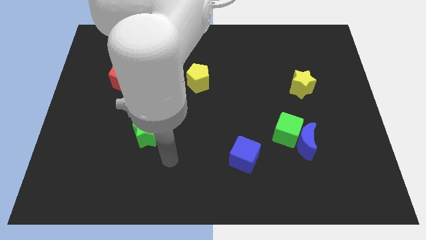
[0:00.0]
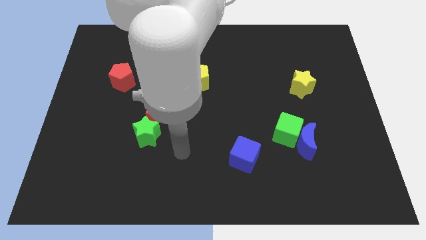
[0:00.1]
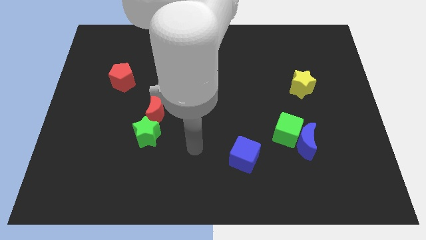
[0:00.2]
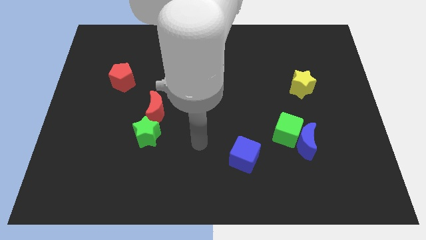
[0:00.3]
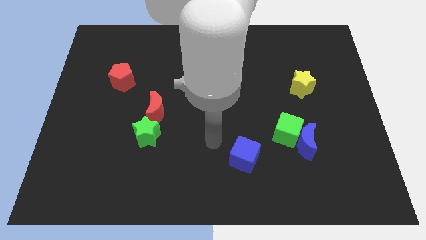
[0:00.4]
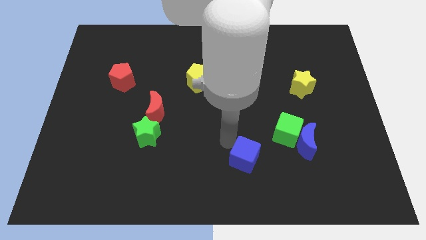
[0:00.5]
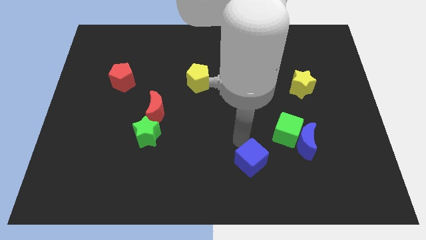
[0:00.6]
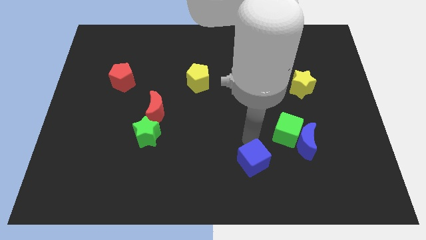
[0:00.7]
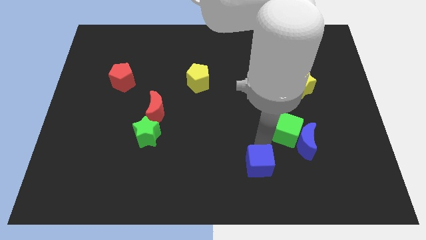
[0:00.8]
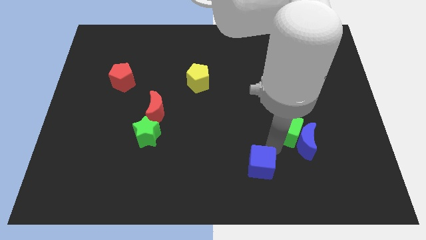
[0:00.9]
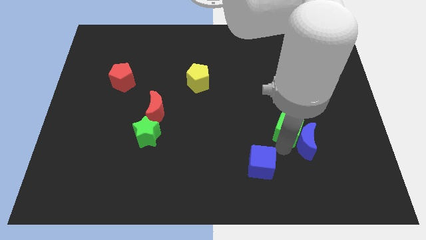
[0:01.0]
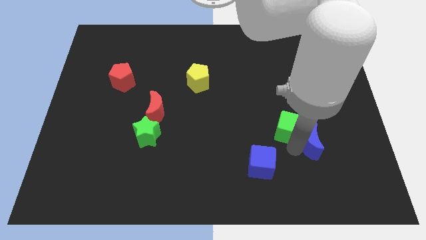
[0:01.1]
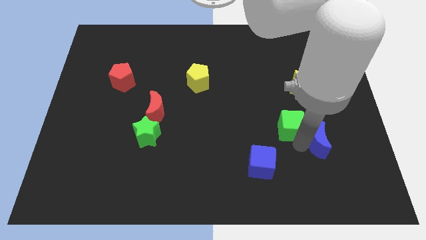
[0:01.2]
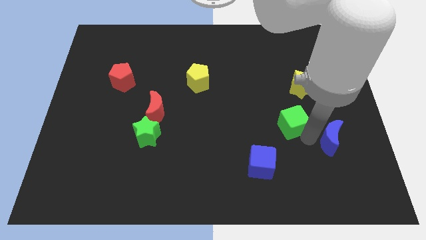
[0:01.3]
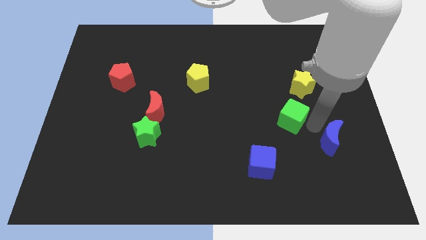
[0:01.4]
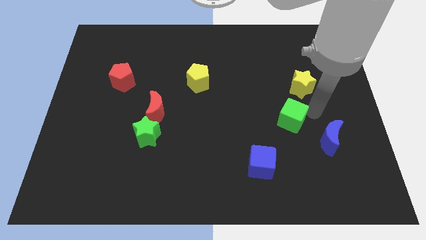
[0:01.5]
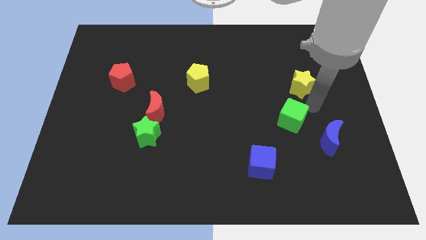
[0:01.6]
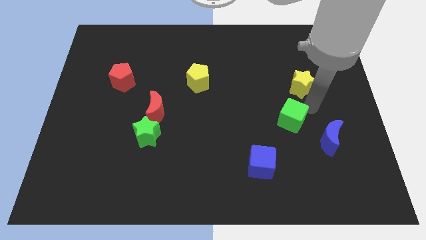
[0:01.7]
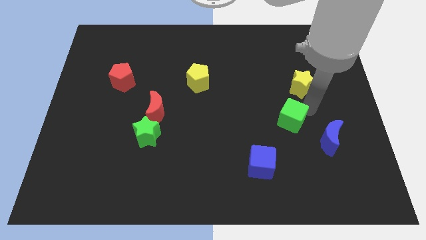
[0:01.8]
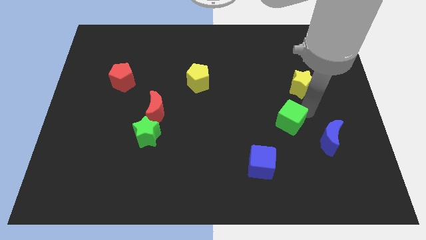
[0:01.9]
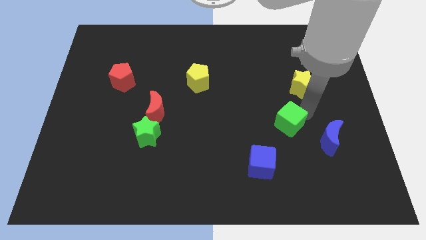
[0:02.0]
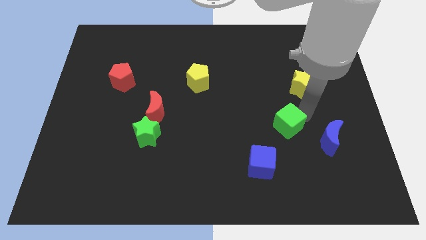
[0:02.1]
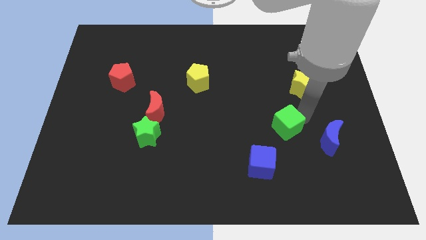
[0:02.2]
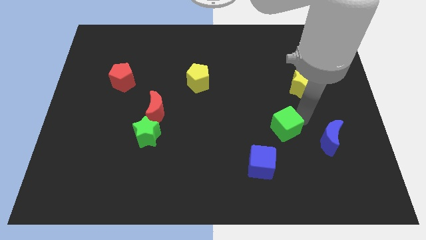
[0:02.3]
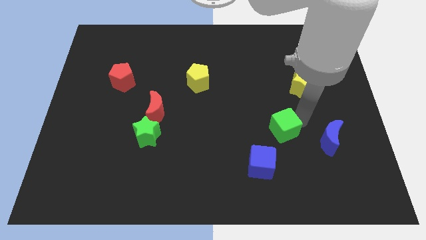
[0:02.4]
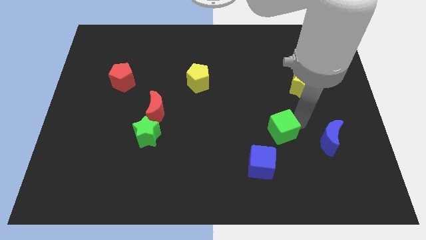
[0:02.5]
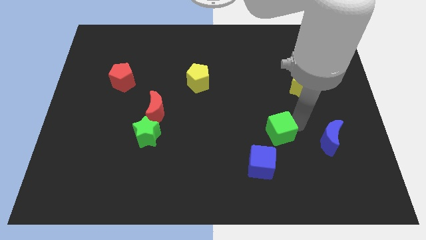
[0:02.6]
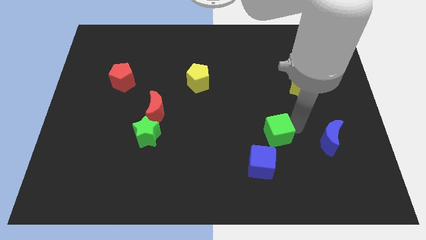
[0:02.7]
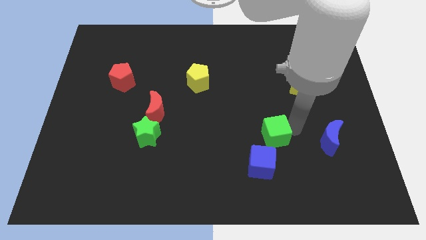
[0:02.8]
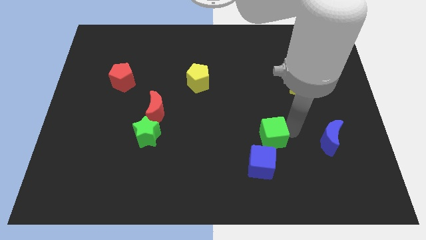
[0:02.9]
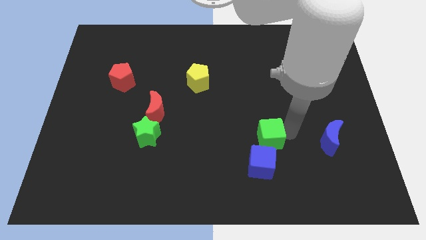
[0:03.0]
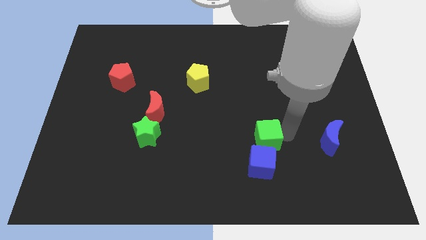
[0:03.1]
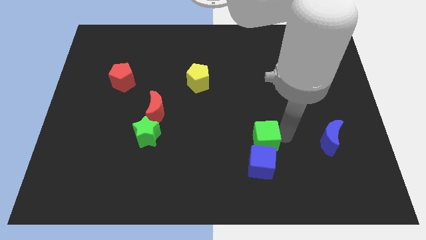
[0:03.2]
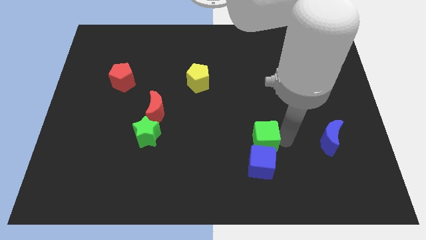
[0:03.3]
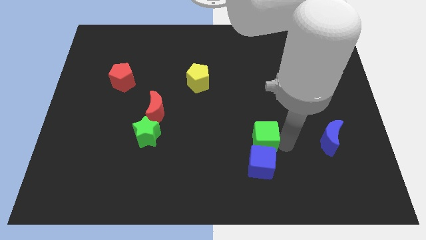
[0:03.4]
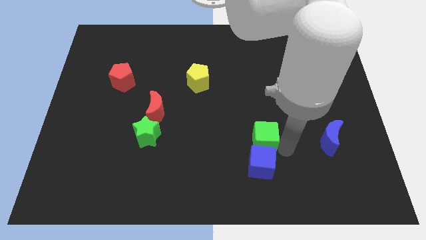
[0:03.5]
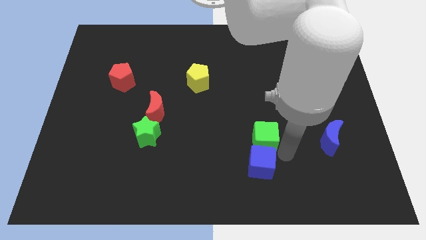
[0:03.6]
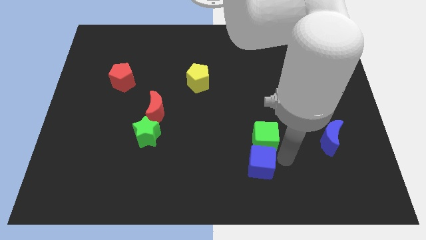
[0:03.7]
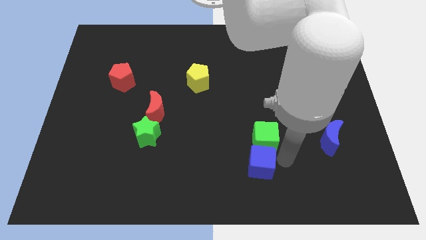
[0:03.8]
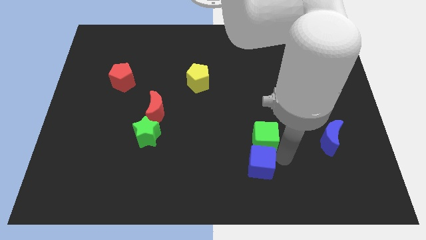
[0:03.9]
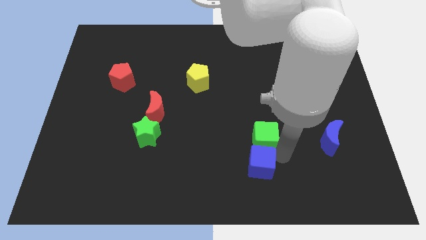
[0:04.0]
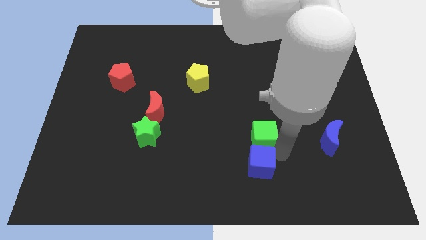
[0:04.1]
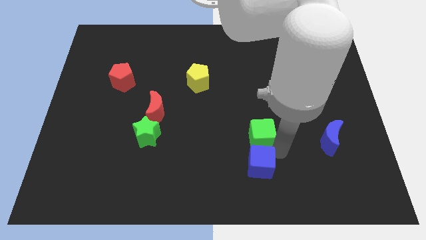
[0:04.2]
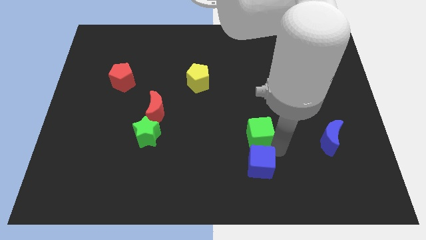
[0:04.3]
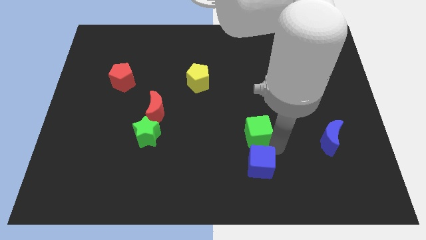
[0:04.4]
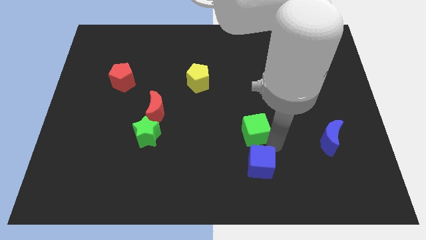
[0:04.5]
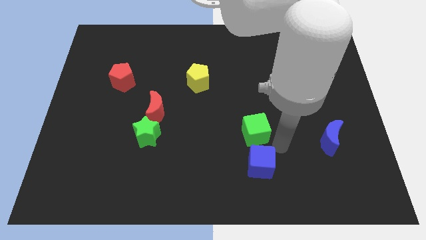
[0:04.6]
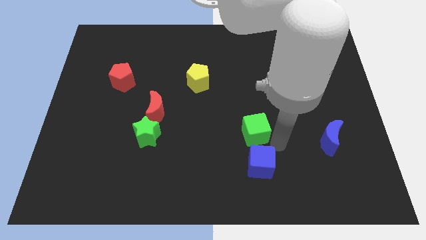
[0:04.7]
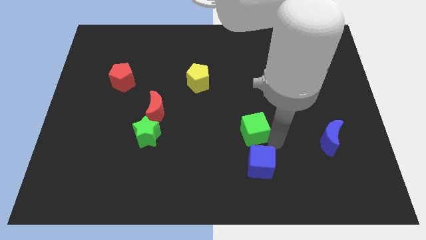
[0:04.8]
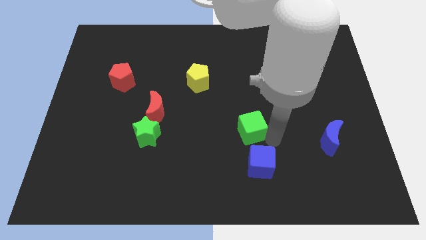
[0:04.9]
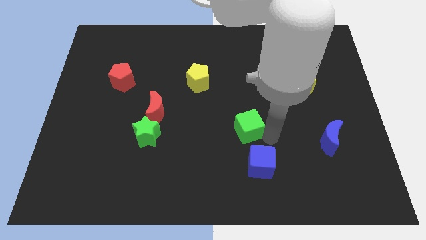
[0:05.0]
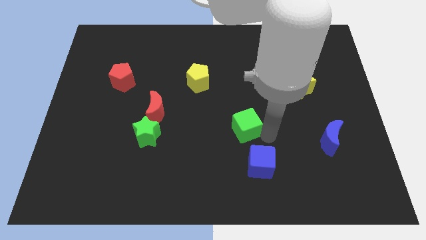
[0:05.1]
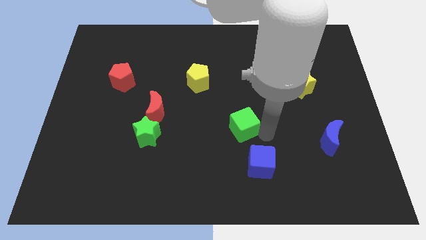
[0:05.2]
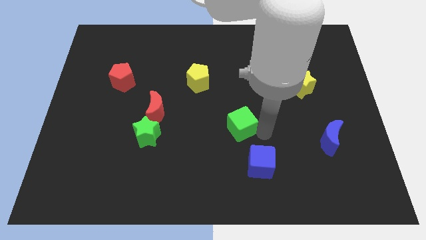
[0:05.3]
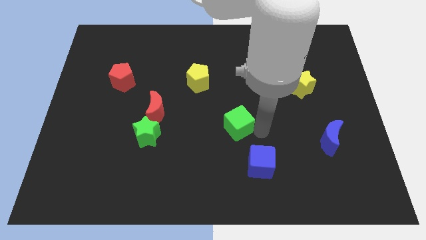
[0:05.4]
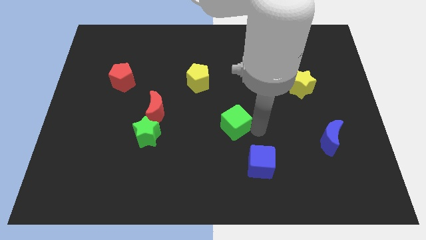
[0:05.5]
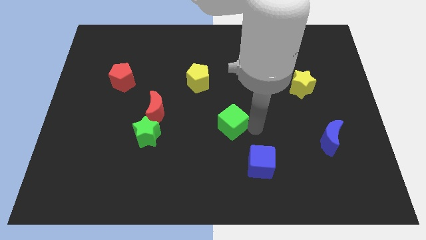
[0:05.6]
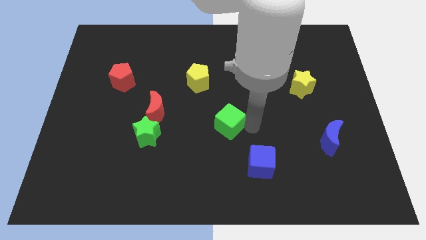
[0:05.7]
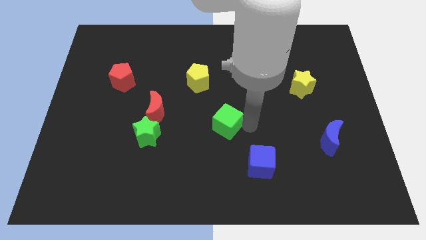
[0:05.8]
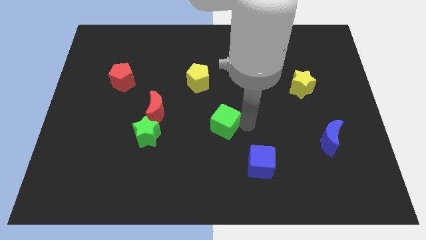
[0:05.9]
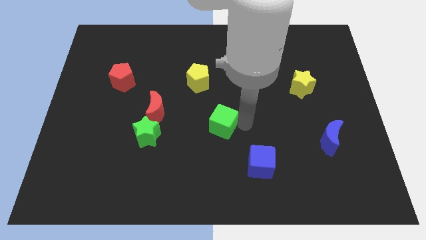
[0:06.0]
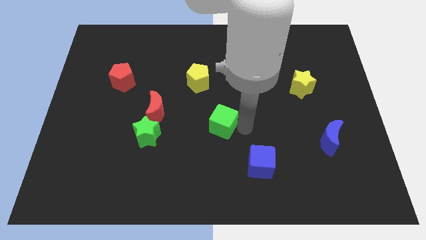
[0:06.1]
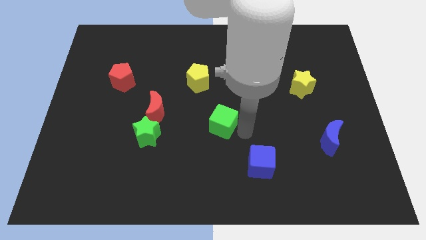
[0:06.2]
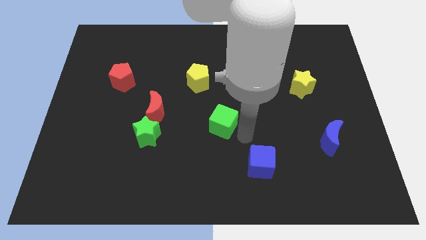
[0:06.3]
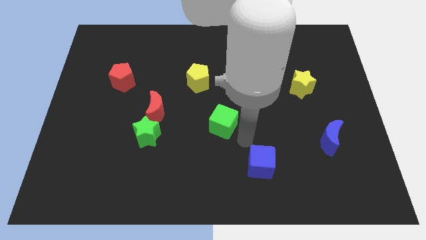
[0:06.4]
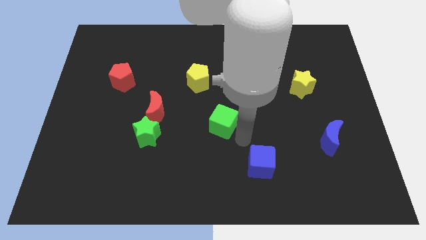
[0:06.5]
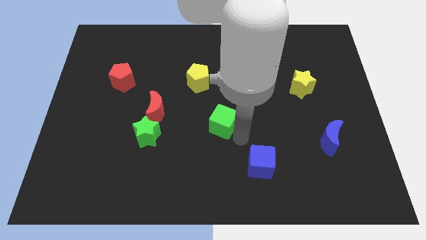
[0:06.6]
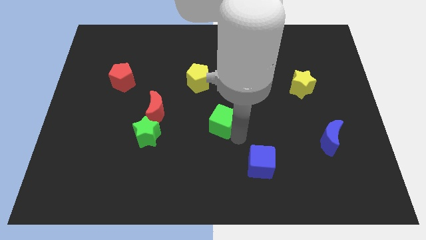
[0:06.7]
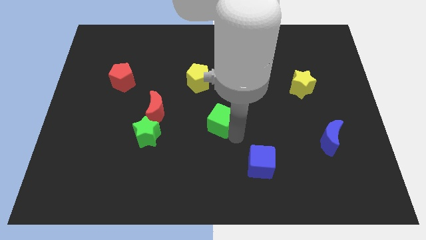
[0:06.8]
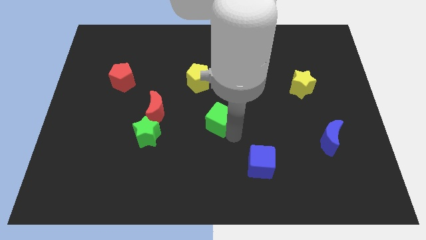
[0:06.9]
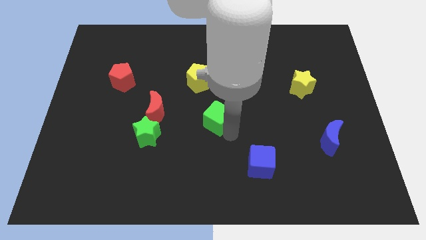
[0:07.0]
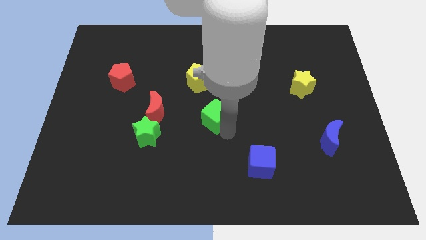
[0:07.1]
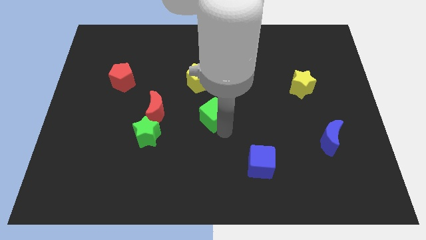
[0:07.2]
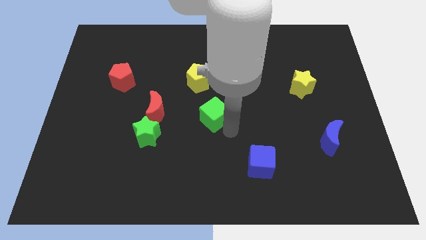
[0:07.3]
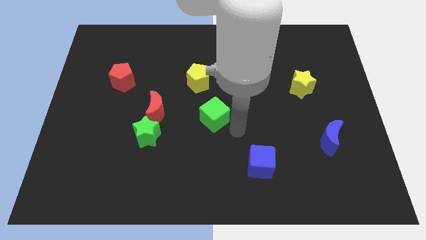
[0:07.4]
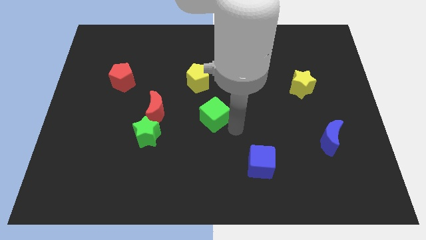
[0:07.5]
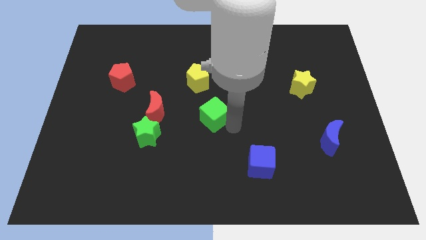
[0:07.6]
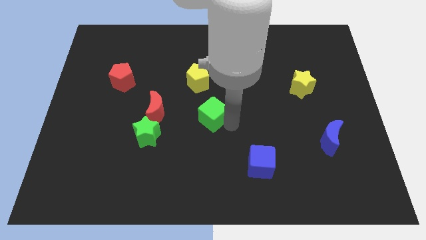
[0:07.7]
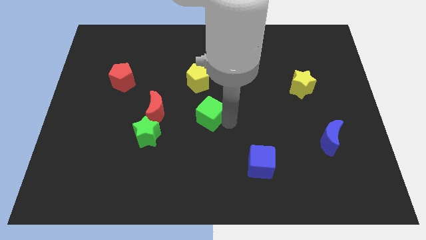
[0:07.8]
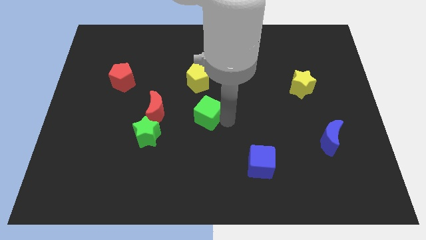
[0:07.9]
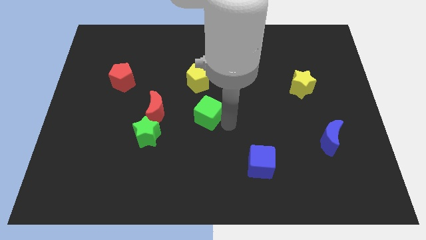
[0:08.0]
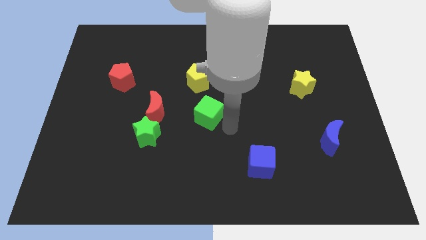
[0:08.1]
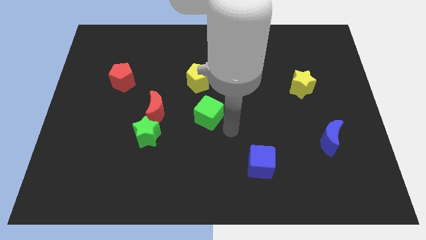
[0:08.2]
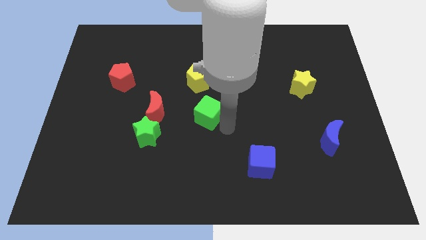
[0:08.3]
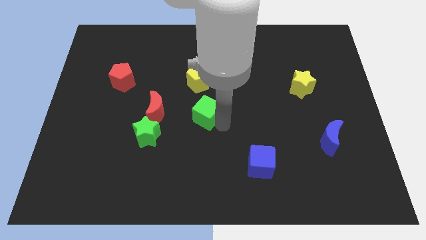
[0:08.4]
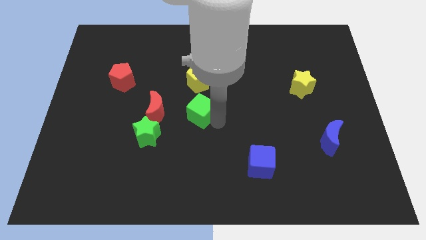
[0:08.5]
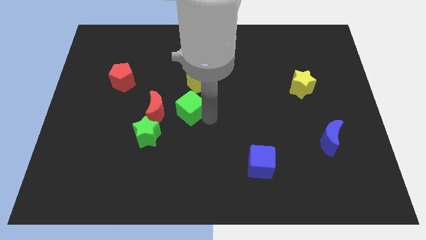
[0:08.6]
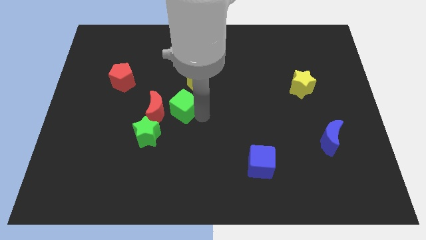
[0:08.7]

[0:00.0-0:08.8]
move the green cube to the bottom left of the yellow pentagon
